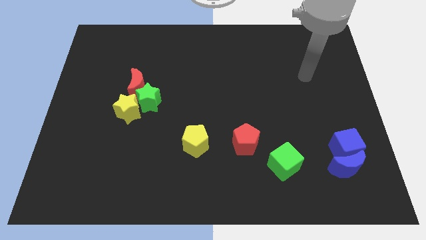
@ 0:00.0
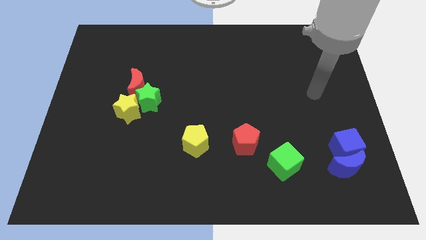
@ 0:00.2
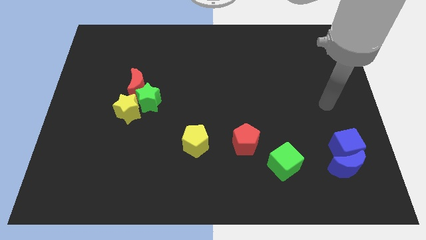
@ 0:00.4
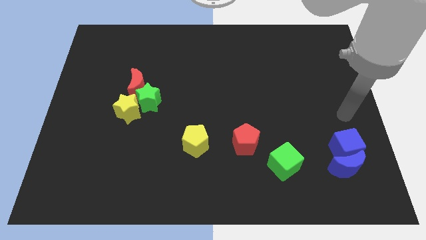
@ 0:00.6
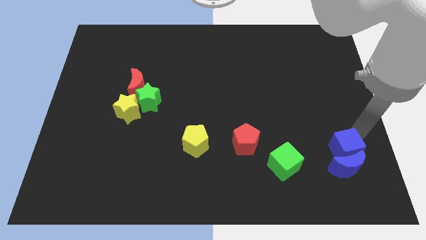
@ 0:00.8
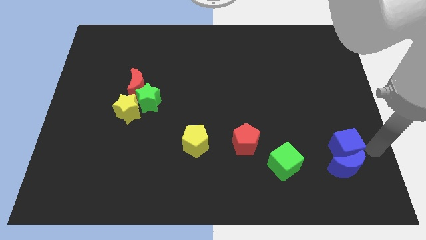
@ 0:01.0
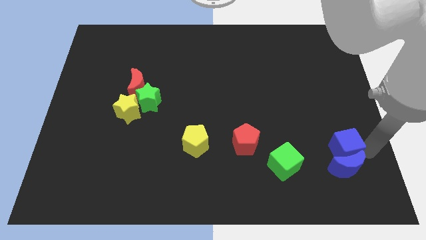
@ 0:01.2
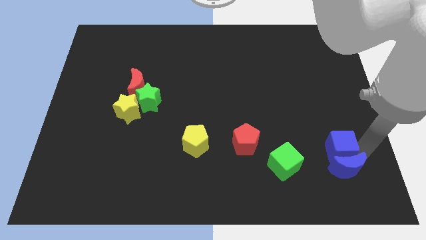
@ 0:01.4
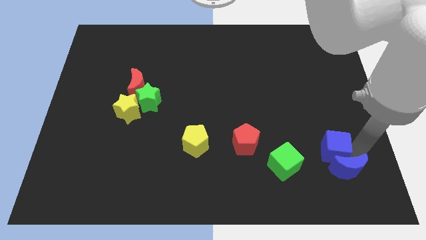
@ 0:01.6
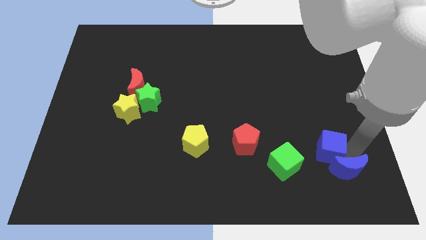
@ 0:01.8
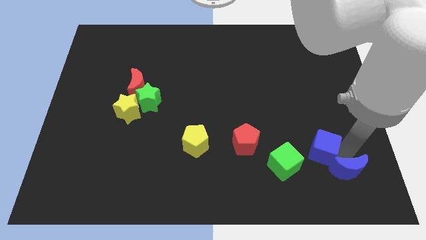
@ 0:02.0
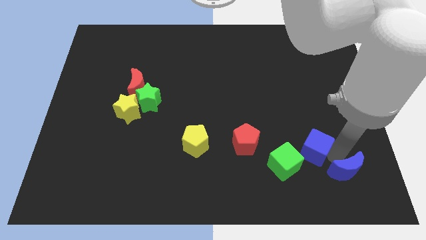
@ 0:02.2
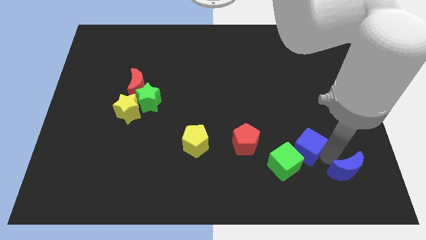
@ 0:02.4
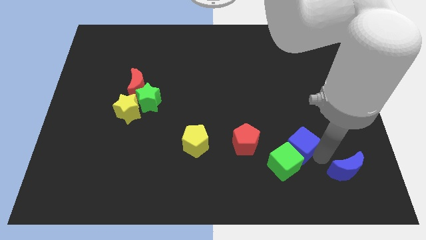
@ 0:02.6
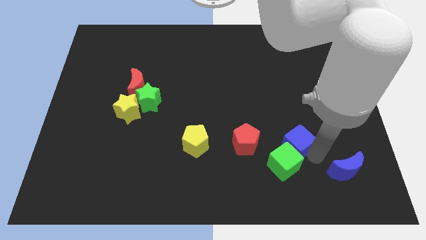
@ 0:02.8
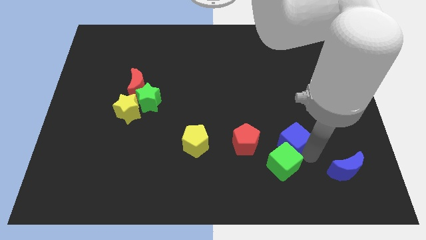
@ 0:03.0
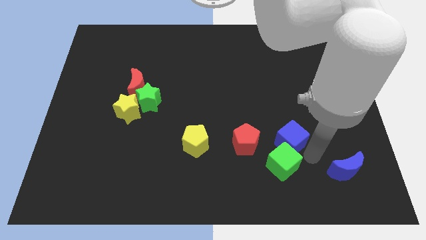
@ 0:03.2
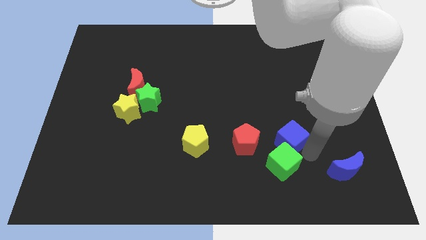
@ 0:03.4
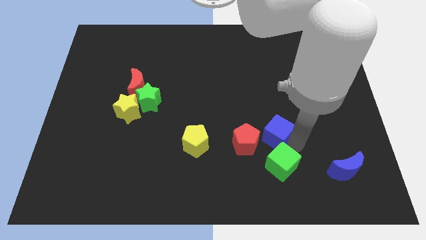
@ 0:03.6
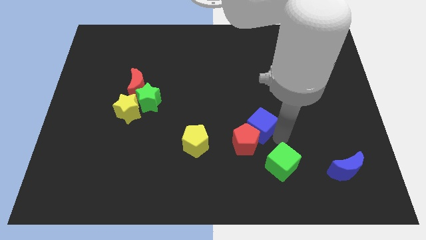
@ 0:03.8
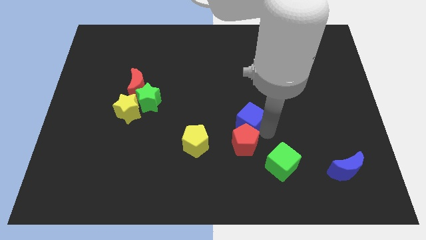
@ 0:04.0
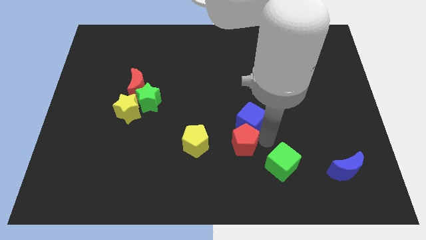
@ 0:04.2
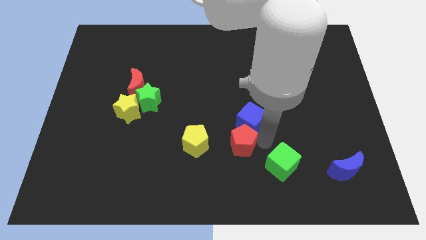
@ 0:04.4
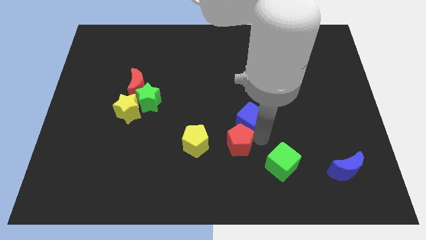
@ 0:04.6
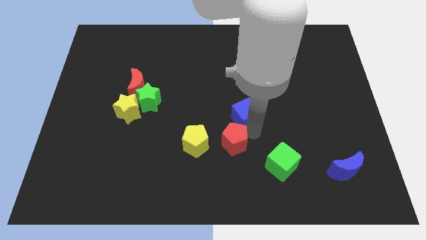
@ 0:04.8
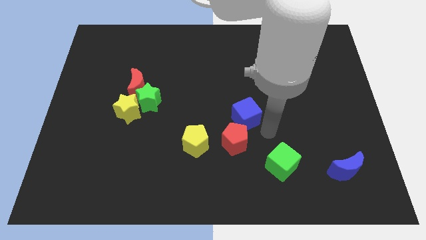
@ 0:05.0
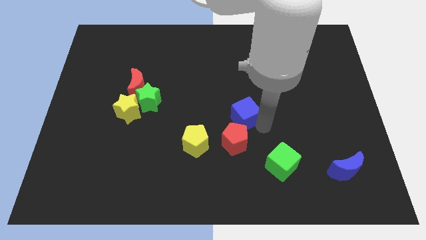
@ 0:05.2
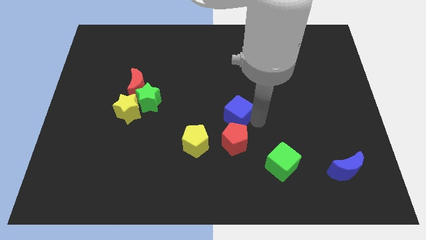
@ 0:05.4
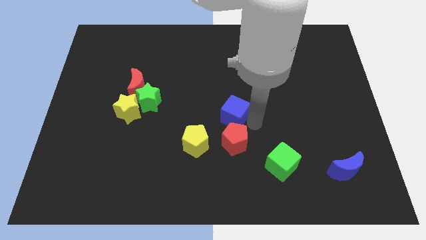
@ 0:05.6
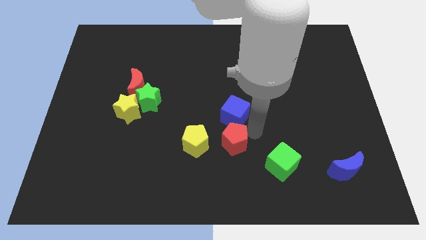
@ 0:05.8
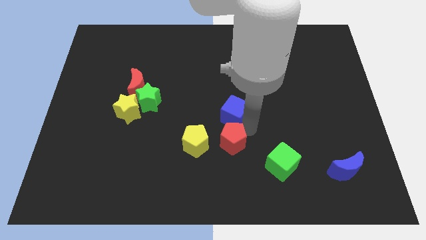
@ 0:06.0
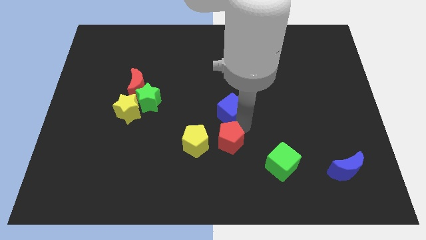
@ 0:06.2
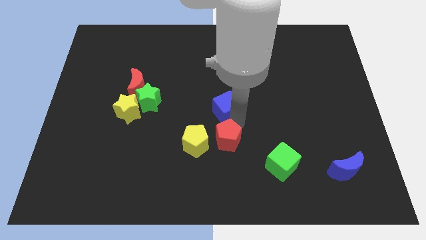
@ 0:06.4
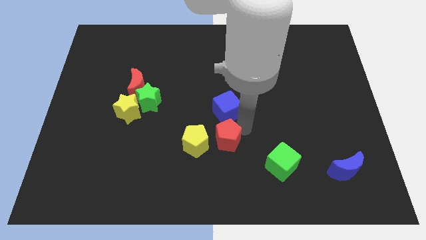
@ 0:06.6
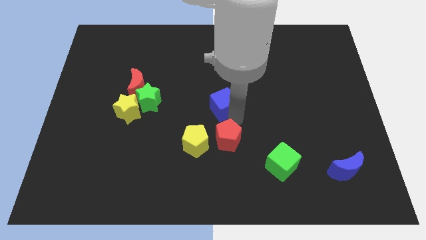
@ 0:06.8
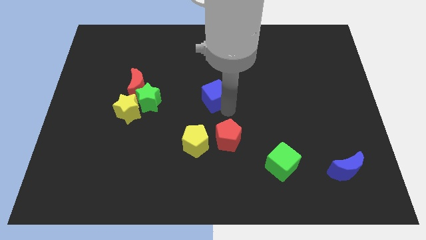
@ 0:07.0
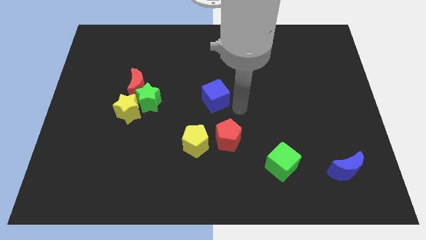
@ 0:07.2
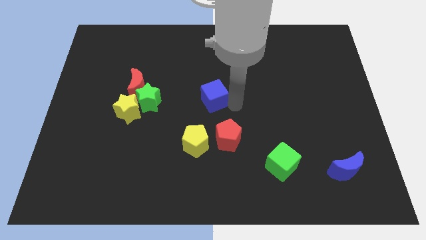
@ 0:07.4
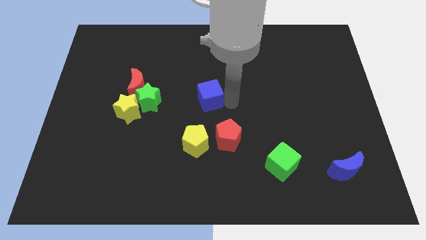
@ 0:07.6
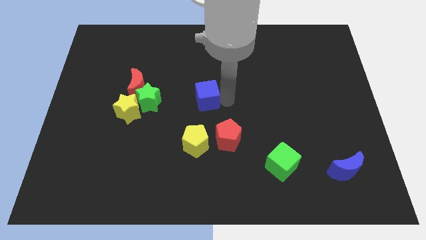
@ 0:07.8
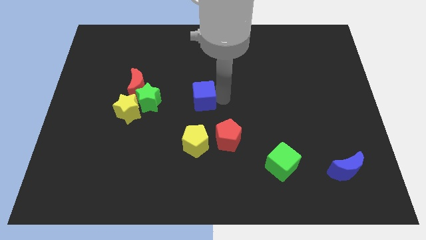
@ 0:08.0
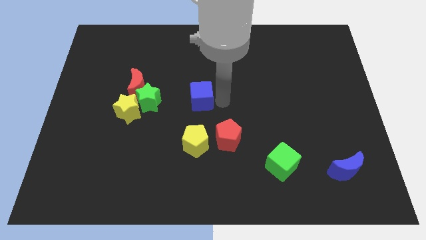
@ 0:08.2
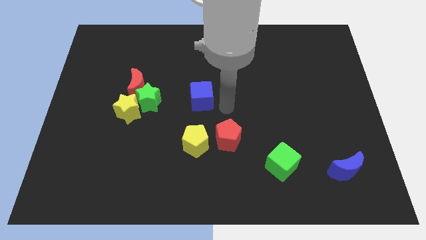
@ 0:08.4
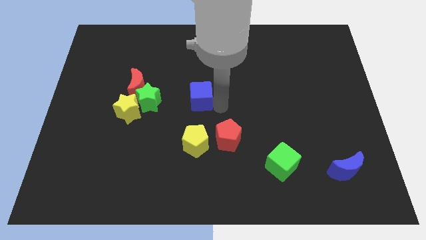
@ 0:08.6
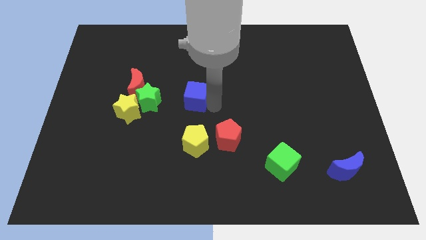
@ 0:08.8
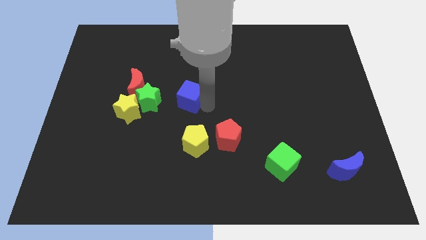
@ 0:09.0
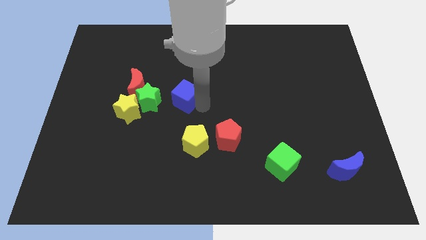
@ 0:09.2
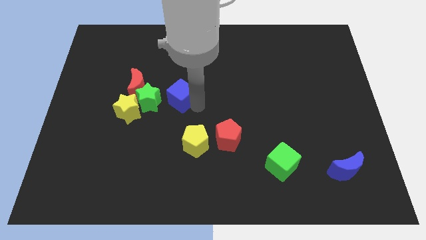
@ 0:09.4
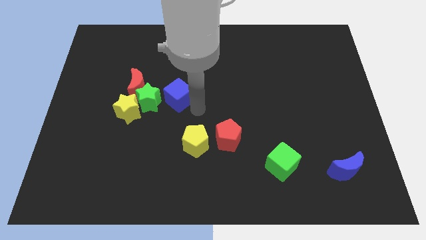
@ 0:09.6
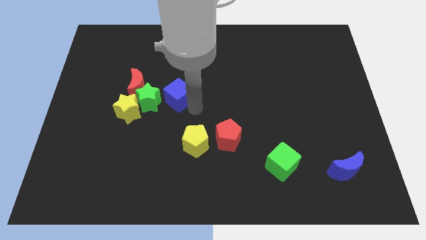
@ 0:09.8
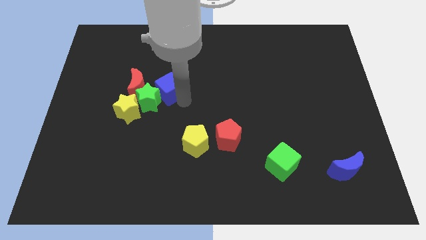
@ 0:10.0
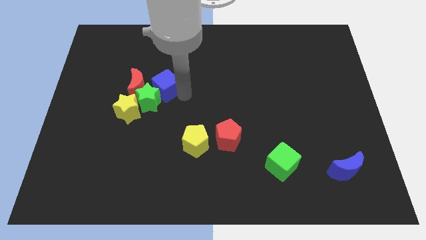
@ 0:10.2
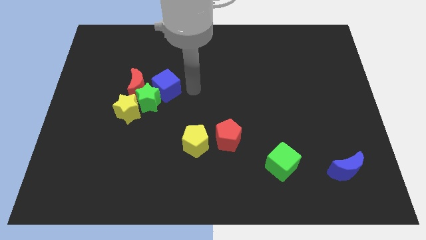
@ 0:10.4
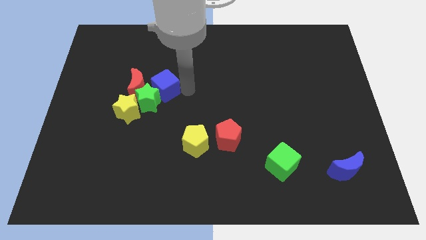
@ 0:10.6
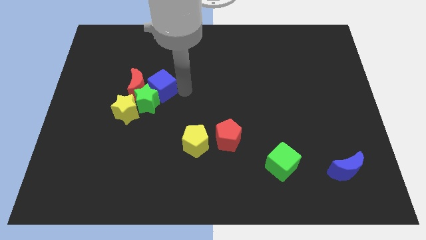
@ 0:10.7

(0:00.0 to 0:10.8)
push the blue cube next to the red moon
